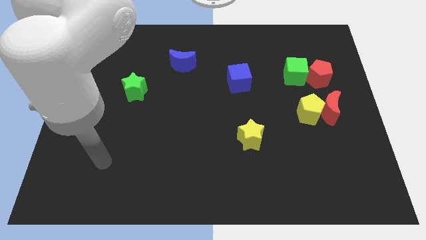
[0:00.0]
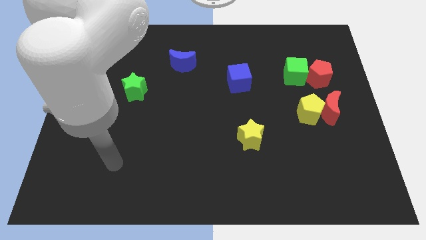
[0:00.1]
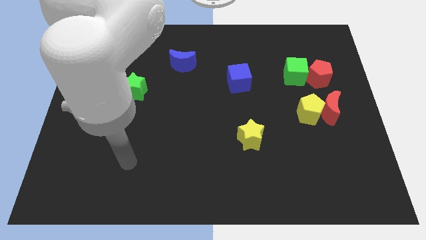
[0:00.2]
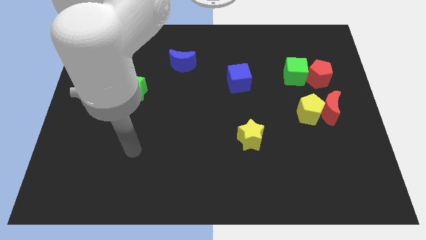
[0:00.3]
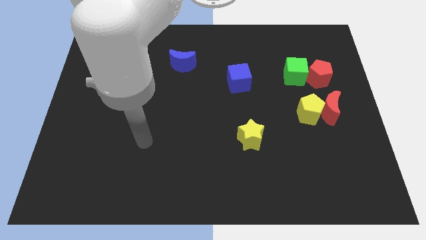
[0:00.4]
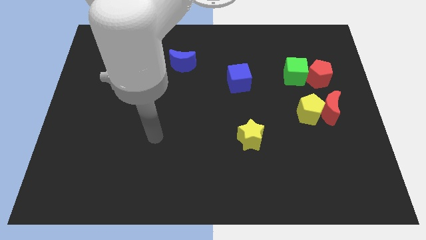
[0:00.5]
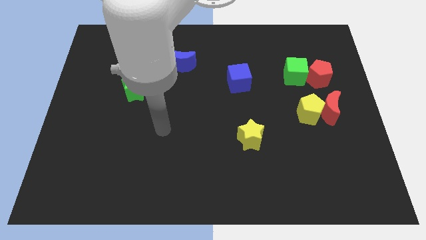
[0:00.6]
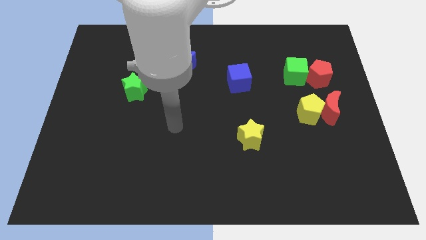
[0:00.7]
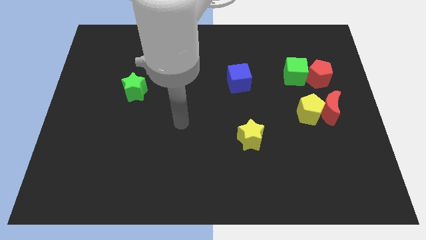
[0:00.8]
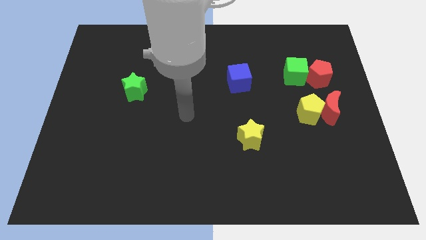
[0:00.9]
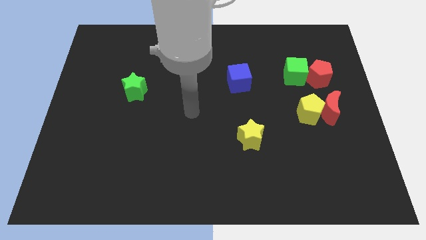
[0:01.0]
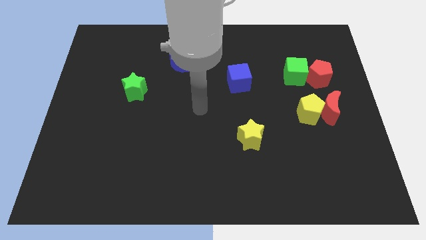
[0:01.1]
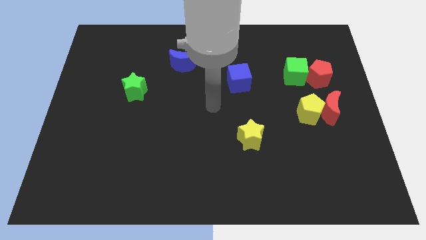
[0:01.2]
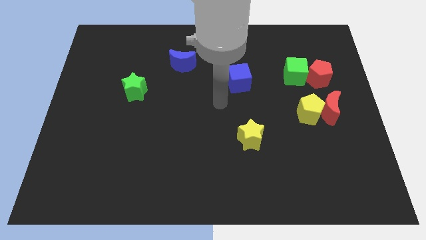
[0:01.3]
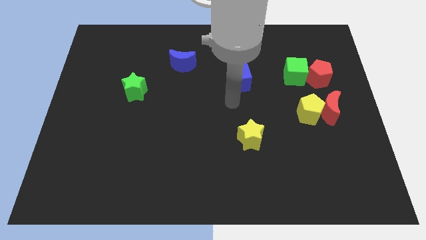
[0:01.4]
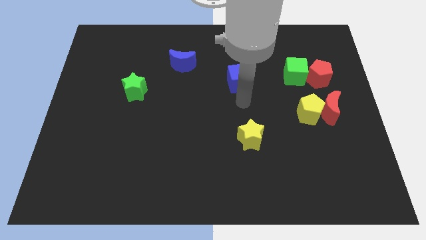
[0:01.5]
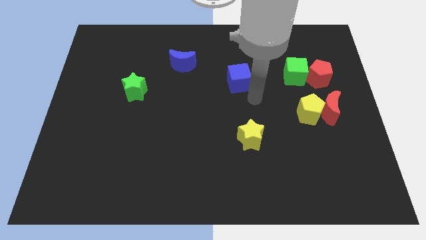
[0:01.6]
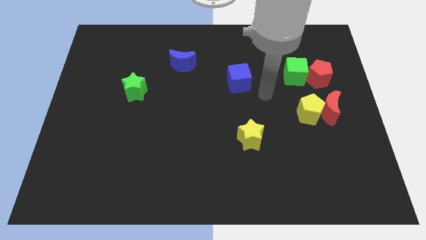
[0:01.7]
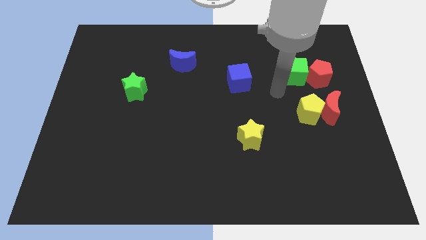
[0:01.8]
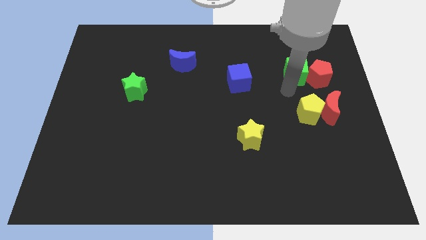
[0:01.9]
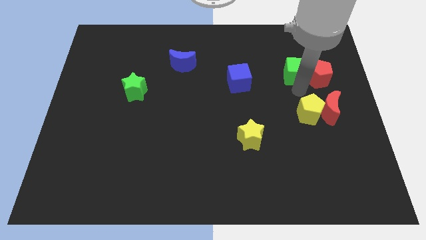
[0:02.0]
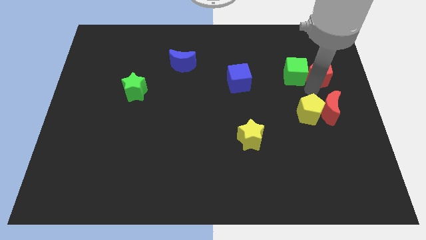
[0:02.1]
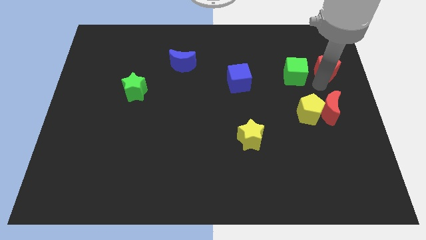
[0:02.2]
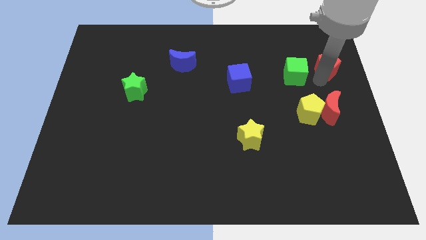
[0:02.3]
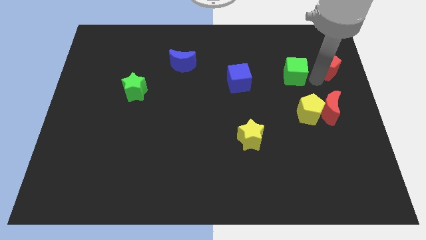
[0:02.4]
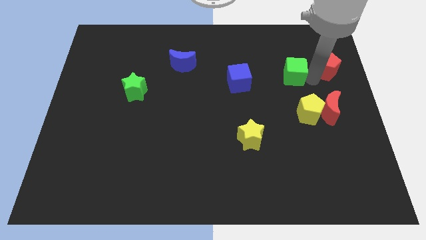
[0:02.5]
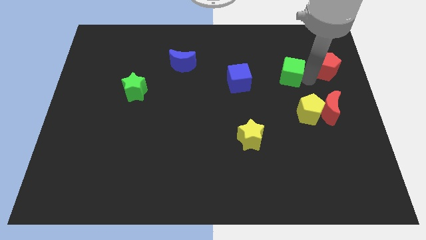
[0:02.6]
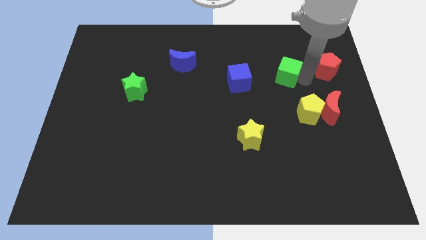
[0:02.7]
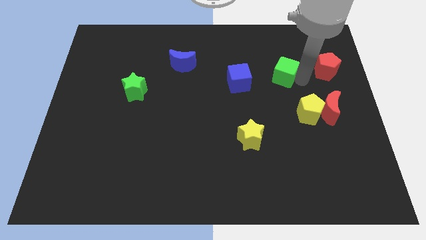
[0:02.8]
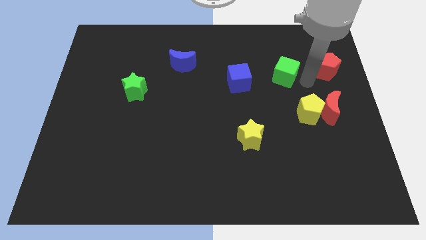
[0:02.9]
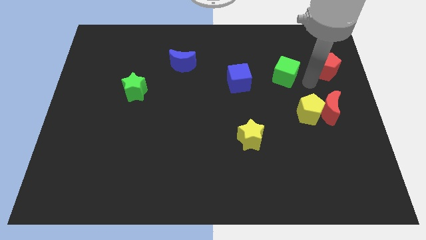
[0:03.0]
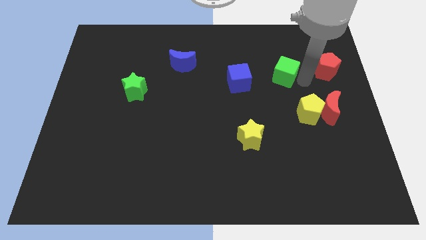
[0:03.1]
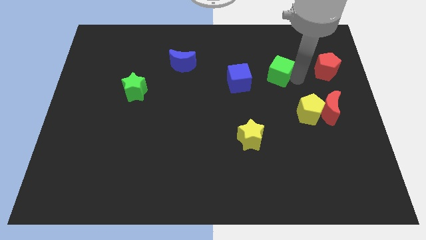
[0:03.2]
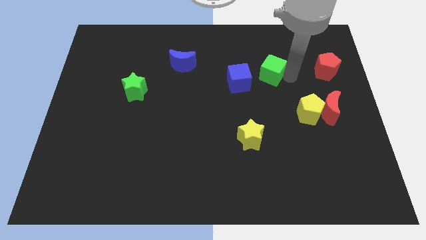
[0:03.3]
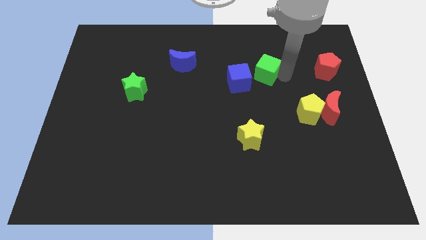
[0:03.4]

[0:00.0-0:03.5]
slide the green cube left a little bit

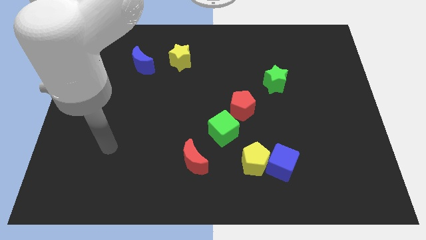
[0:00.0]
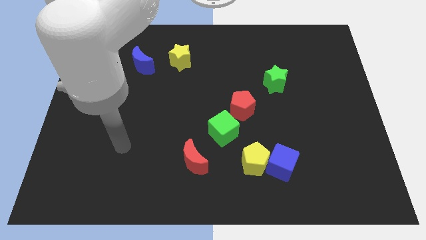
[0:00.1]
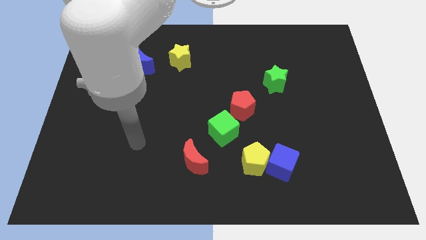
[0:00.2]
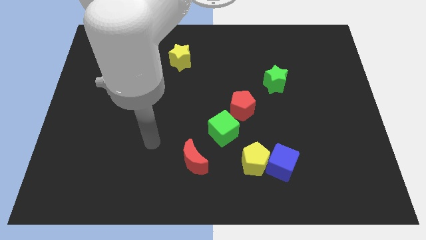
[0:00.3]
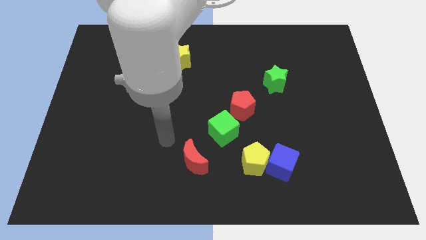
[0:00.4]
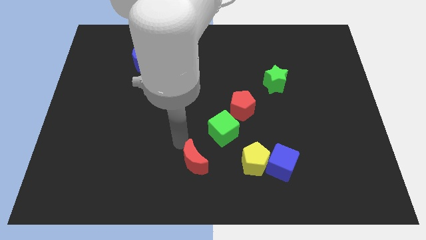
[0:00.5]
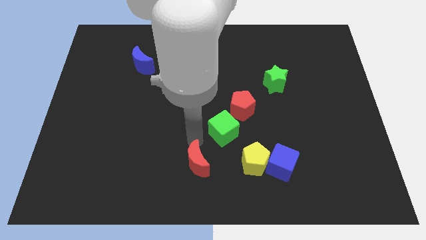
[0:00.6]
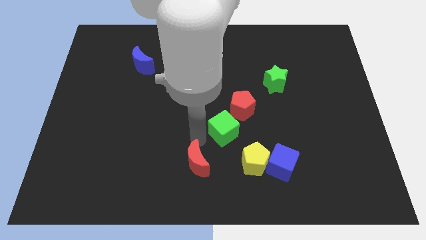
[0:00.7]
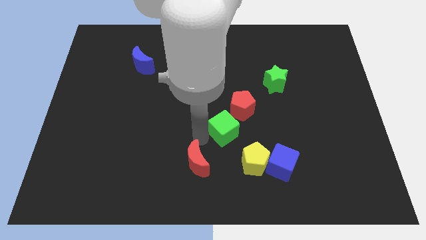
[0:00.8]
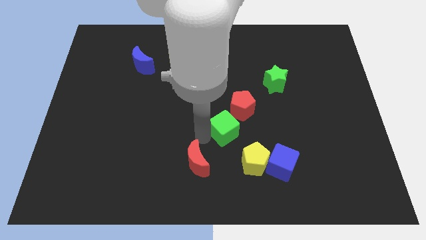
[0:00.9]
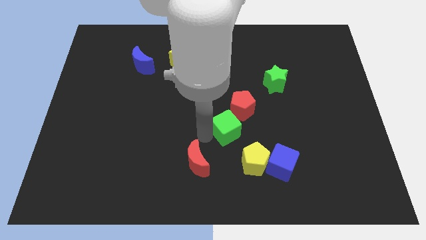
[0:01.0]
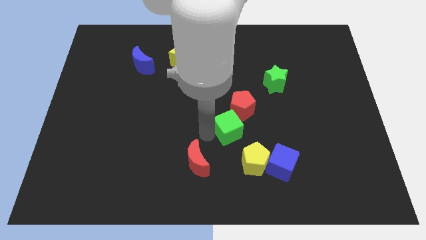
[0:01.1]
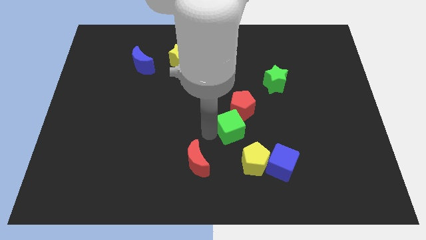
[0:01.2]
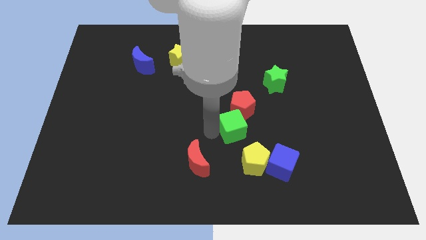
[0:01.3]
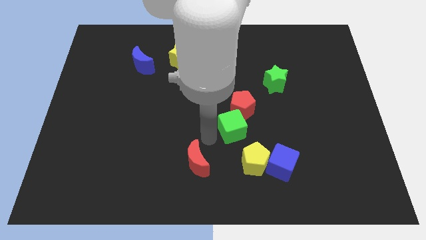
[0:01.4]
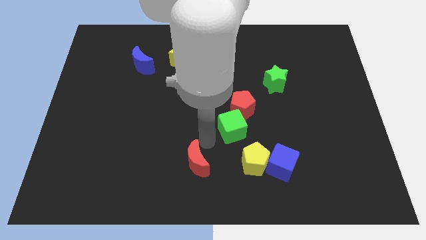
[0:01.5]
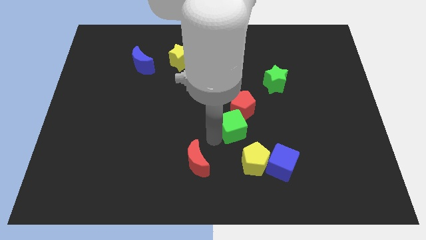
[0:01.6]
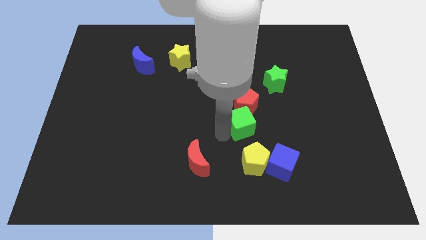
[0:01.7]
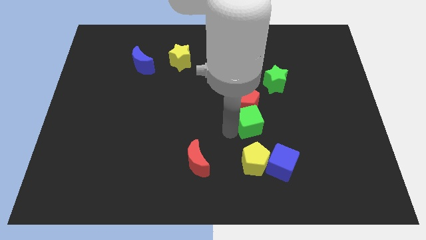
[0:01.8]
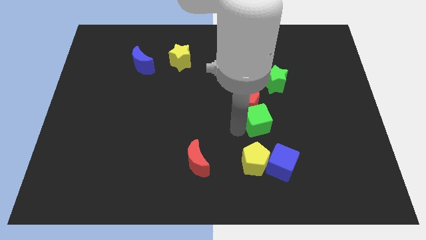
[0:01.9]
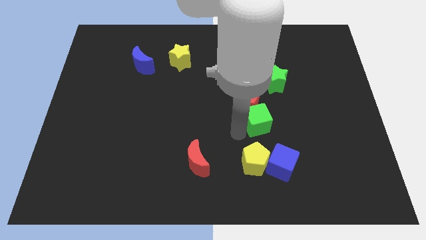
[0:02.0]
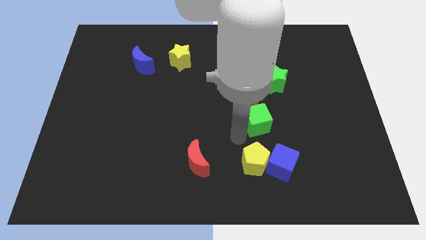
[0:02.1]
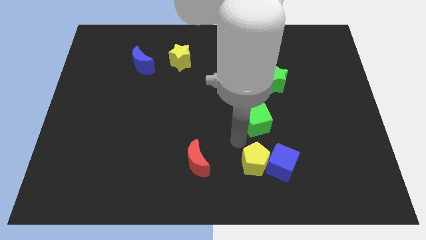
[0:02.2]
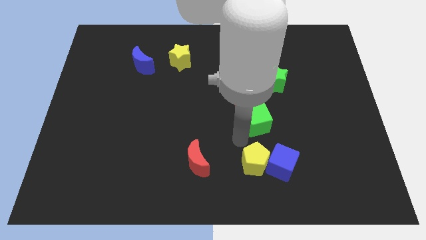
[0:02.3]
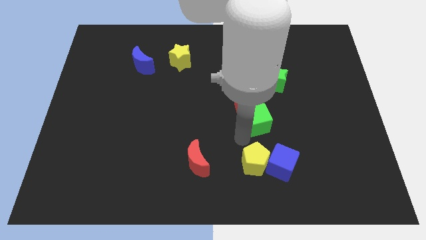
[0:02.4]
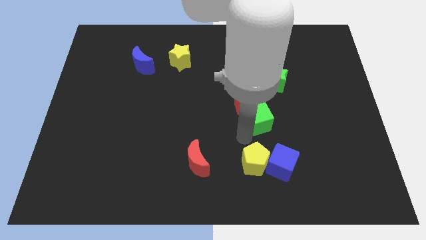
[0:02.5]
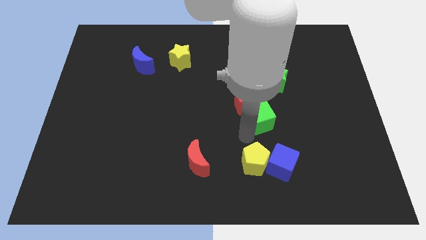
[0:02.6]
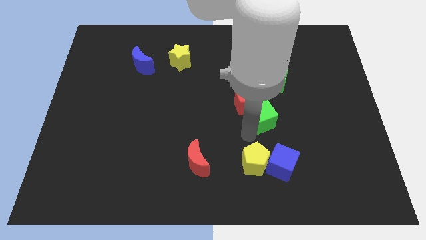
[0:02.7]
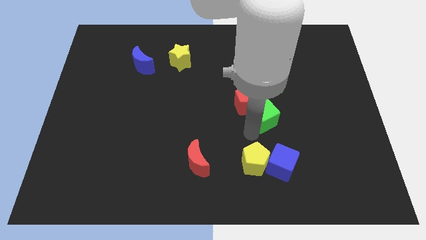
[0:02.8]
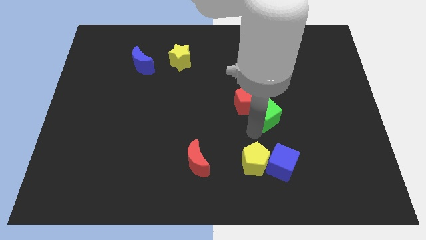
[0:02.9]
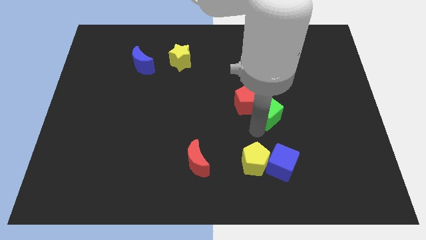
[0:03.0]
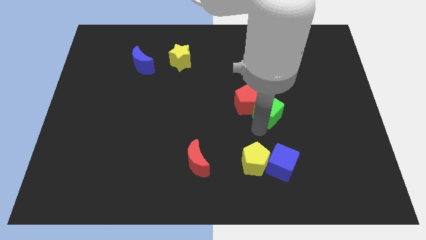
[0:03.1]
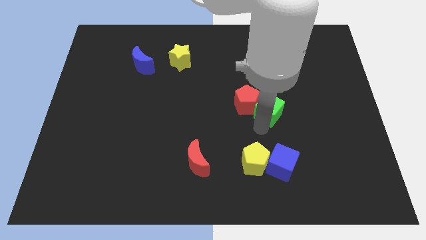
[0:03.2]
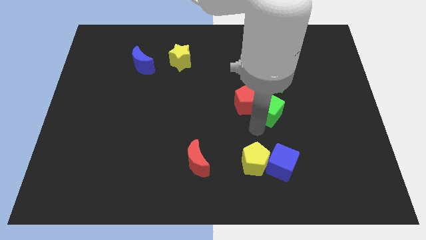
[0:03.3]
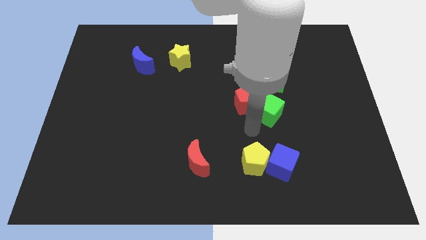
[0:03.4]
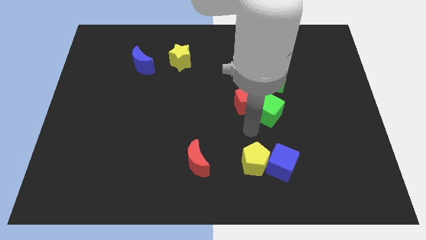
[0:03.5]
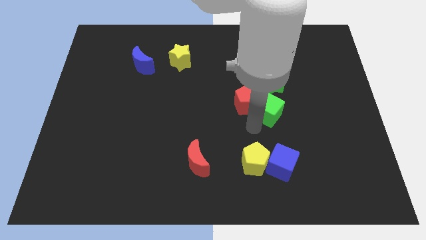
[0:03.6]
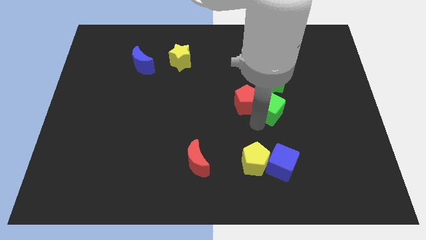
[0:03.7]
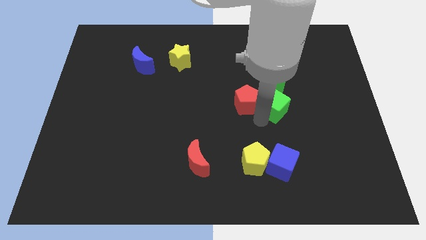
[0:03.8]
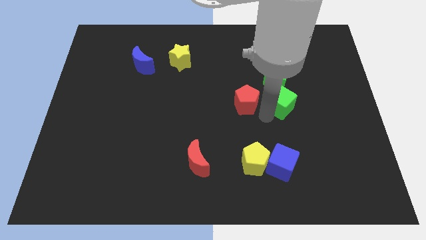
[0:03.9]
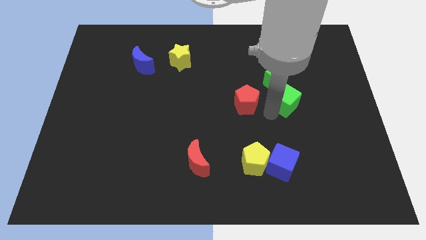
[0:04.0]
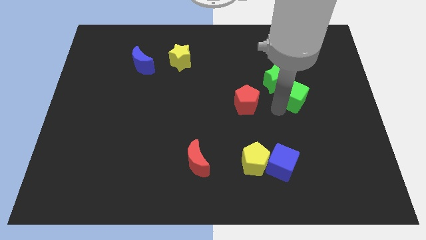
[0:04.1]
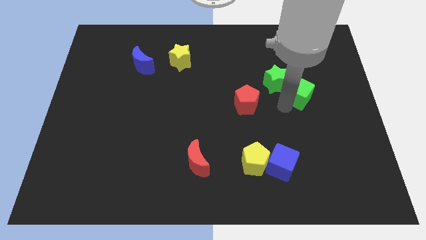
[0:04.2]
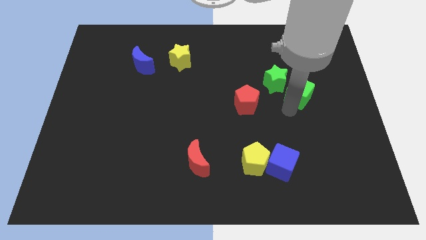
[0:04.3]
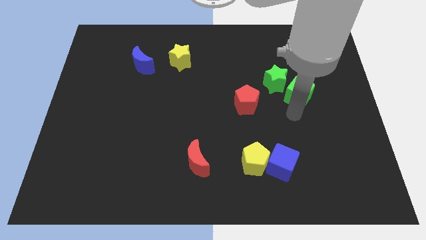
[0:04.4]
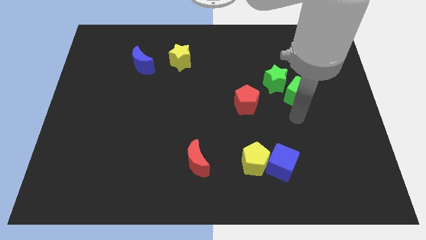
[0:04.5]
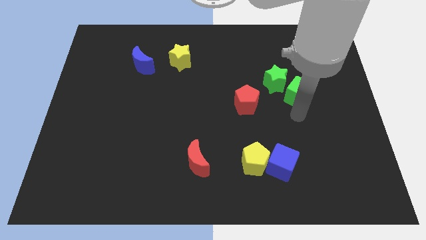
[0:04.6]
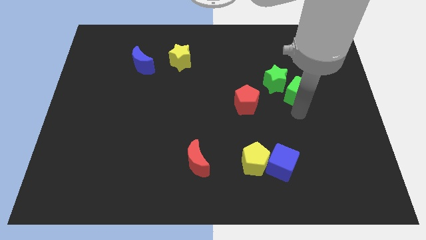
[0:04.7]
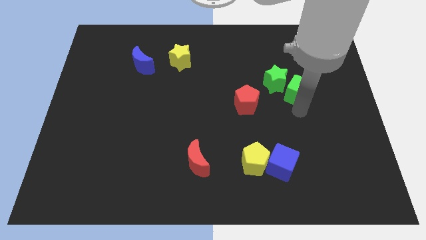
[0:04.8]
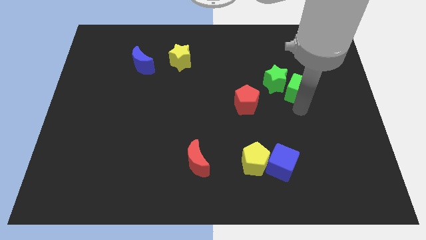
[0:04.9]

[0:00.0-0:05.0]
move the green cube up and then to the right
